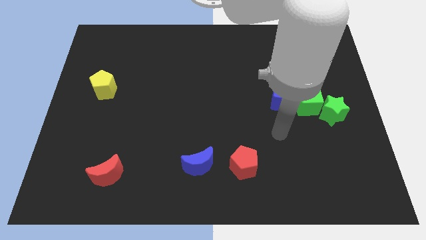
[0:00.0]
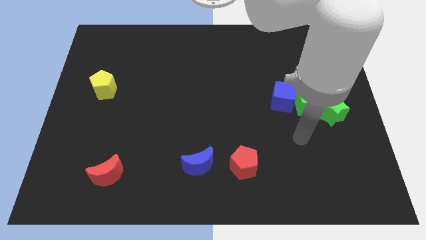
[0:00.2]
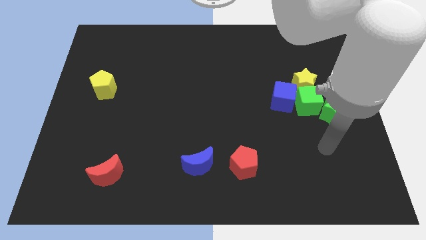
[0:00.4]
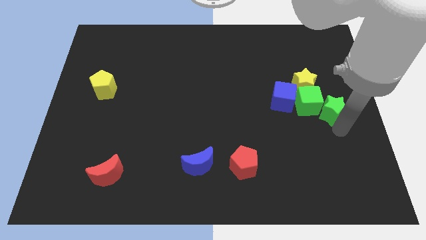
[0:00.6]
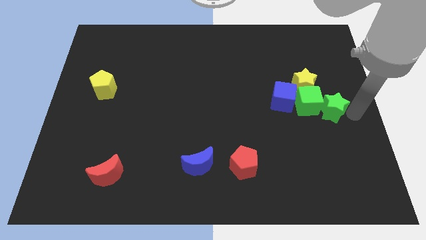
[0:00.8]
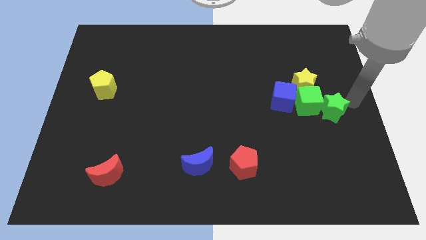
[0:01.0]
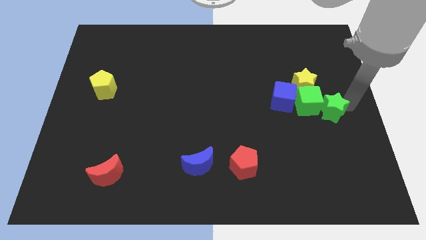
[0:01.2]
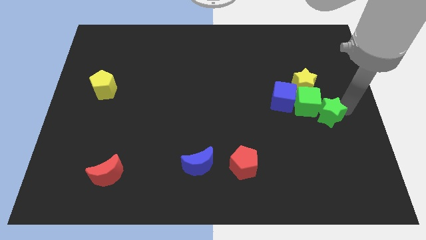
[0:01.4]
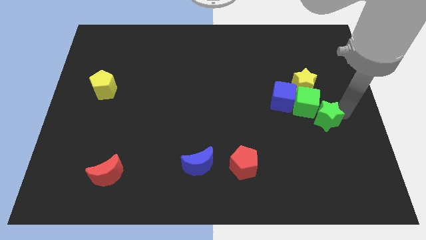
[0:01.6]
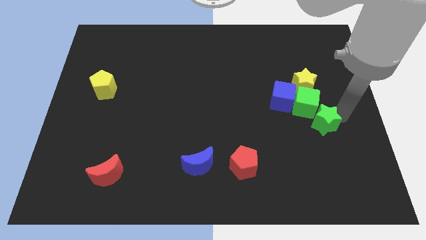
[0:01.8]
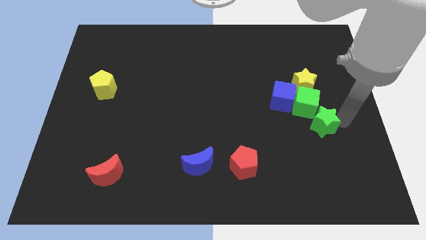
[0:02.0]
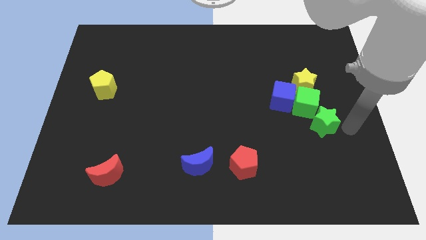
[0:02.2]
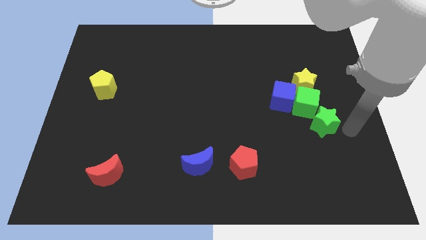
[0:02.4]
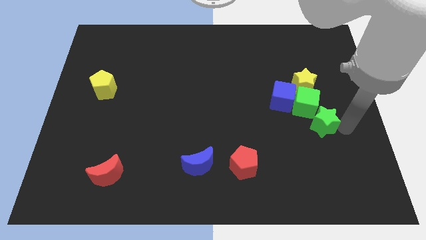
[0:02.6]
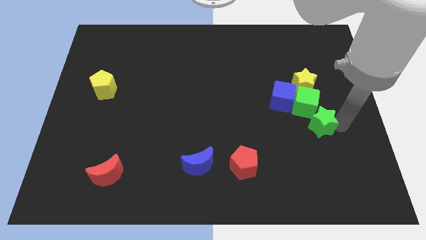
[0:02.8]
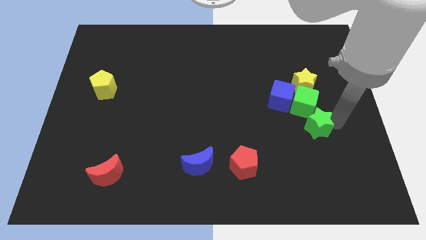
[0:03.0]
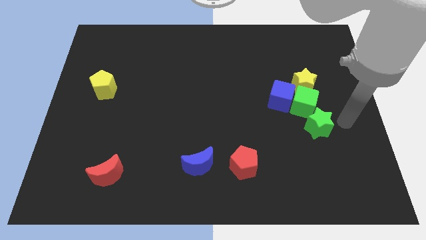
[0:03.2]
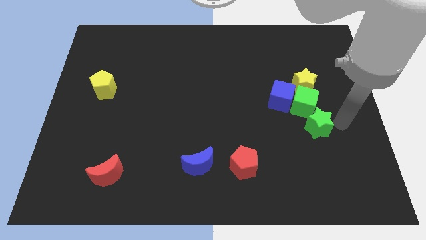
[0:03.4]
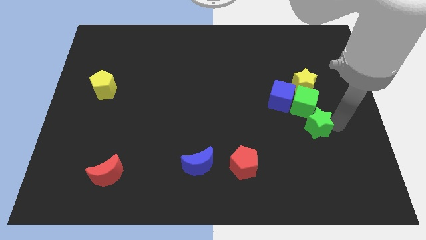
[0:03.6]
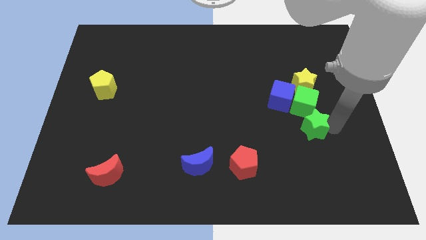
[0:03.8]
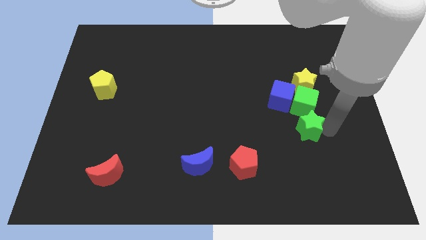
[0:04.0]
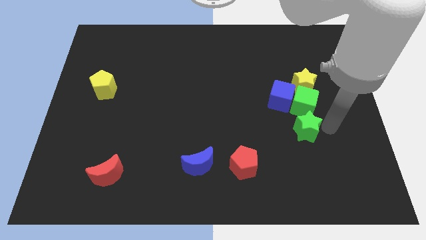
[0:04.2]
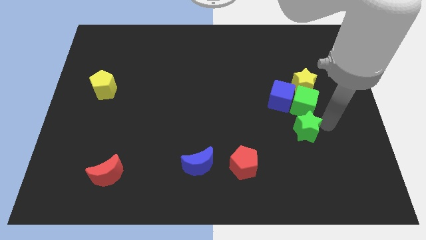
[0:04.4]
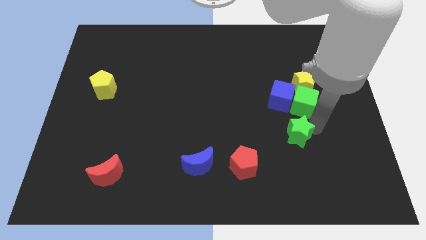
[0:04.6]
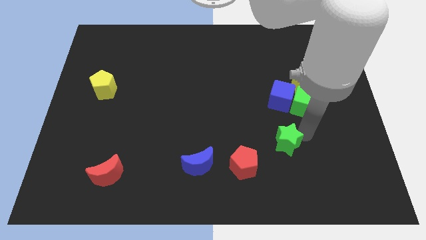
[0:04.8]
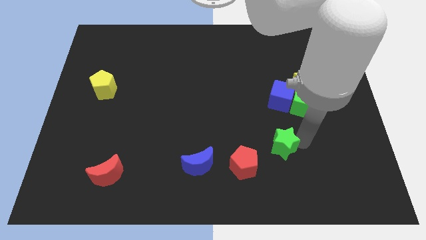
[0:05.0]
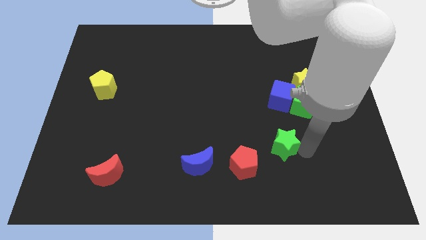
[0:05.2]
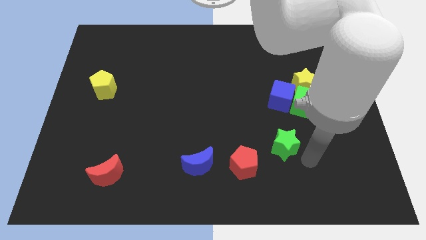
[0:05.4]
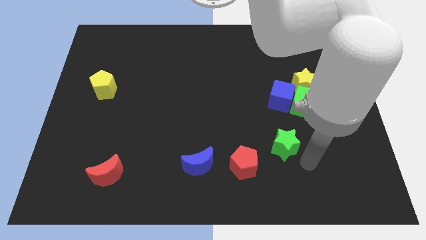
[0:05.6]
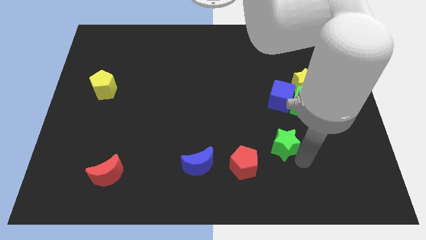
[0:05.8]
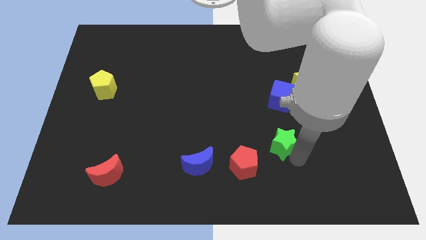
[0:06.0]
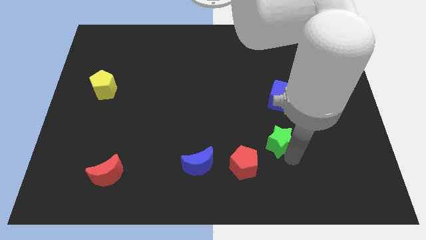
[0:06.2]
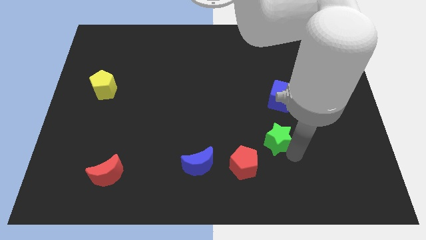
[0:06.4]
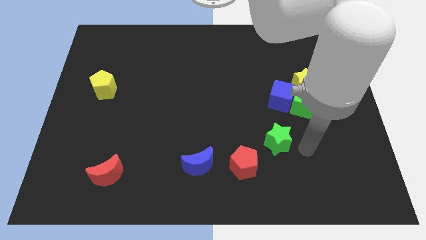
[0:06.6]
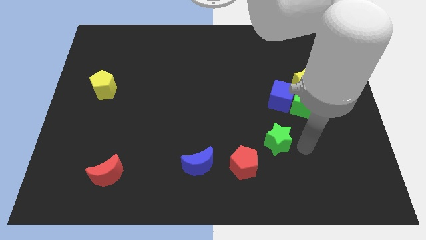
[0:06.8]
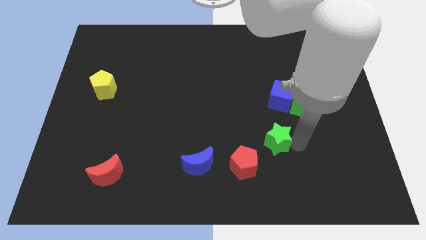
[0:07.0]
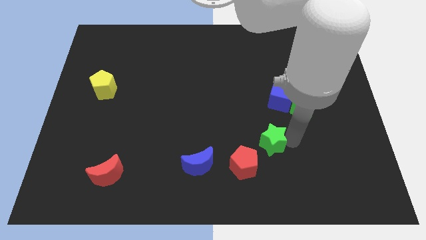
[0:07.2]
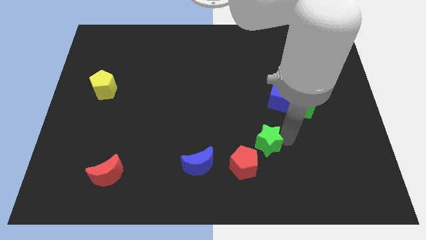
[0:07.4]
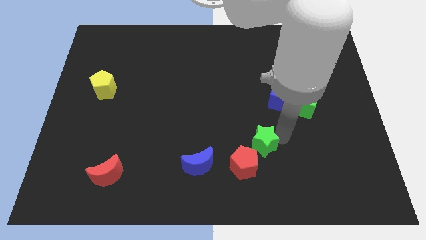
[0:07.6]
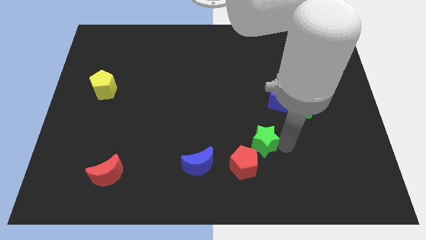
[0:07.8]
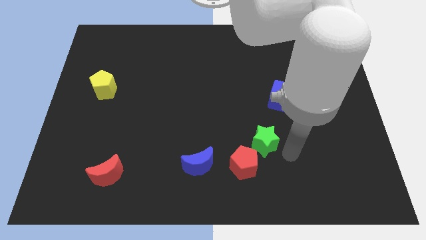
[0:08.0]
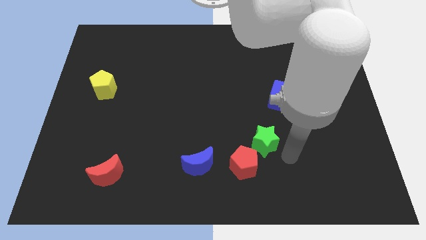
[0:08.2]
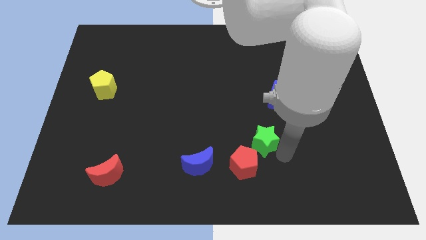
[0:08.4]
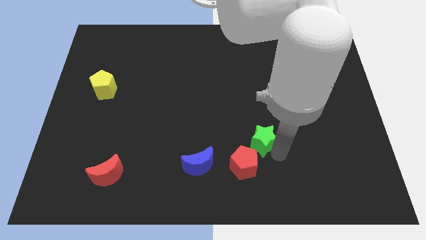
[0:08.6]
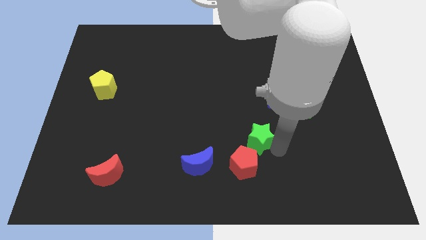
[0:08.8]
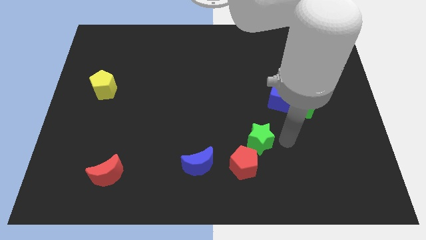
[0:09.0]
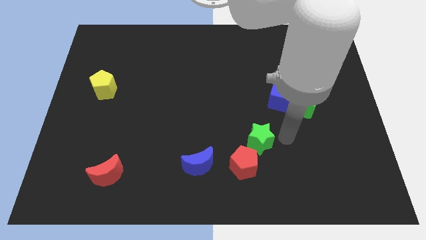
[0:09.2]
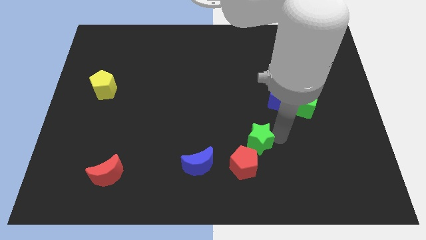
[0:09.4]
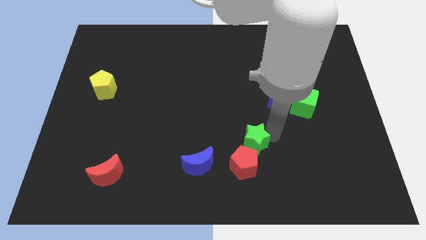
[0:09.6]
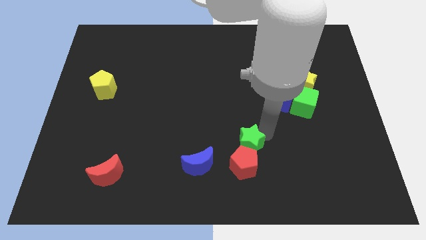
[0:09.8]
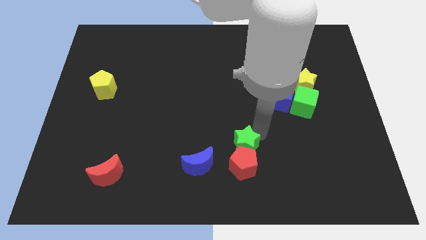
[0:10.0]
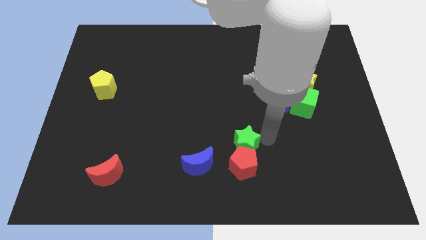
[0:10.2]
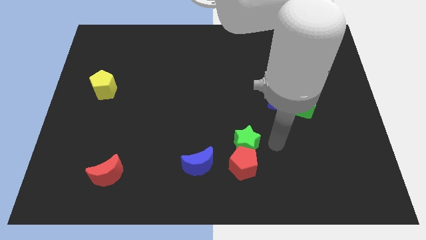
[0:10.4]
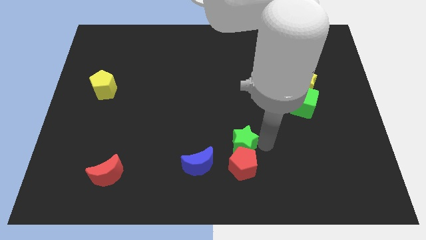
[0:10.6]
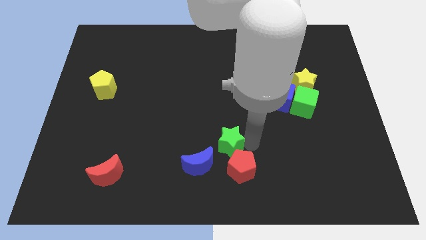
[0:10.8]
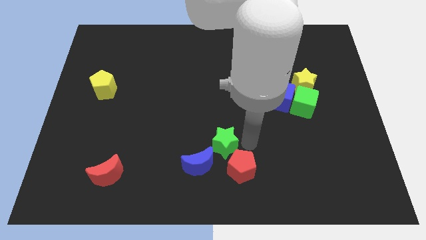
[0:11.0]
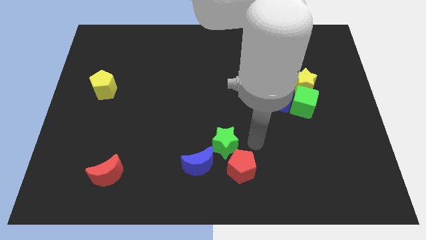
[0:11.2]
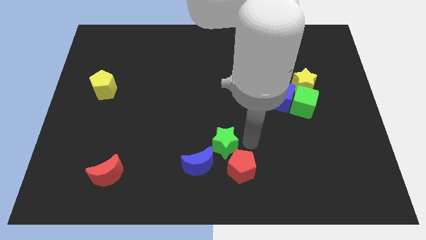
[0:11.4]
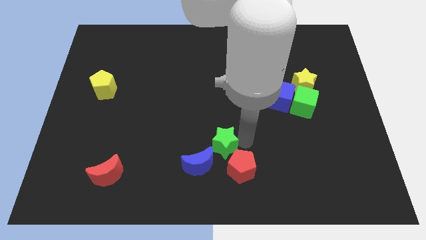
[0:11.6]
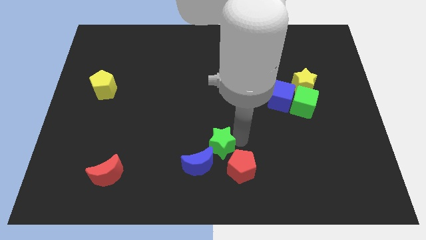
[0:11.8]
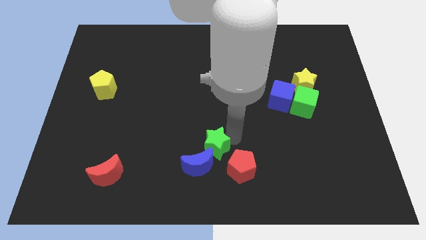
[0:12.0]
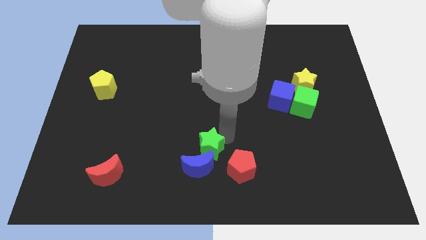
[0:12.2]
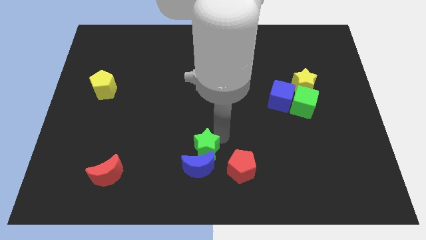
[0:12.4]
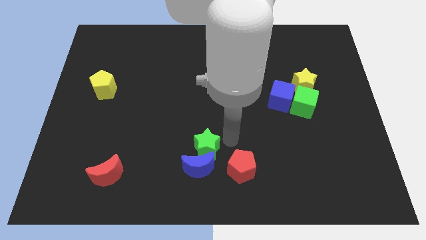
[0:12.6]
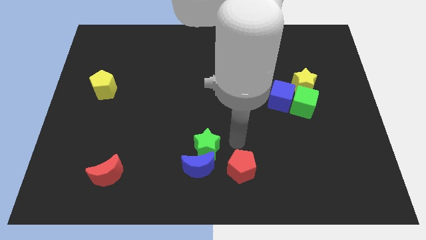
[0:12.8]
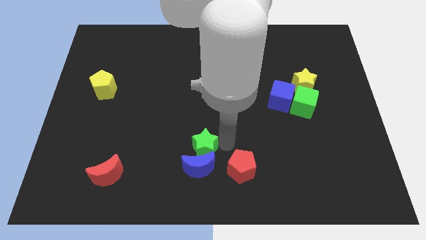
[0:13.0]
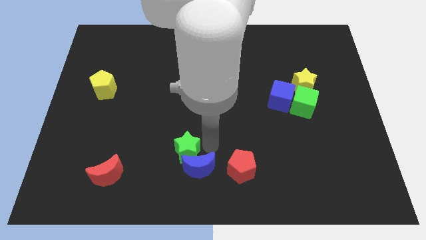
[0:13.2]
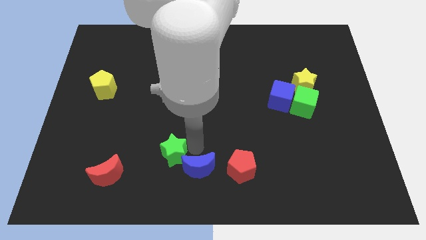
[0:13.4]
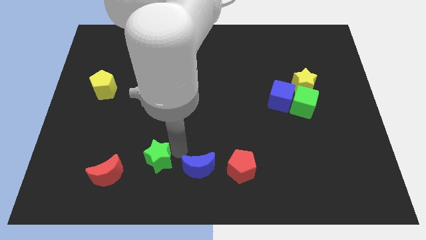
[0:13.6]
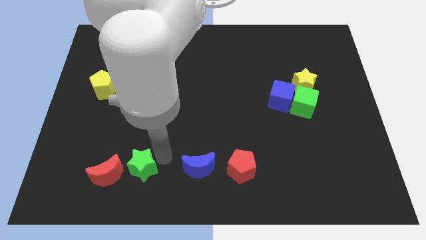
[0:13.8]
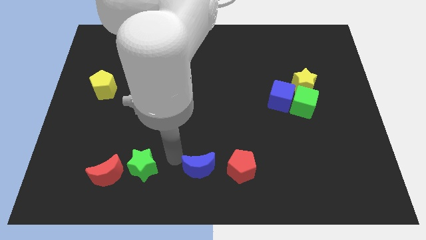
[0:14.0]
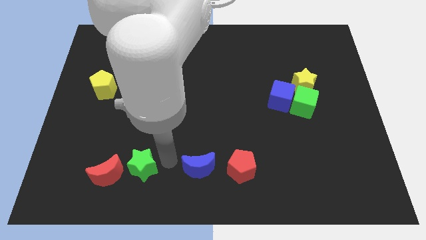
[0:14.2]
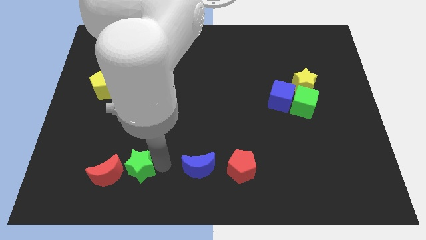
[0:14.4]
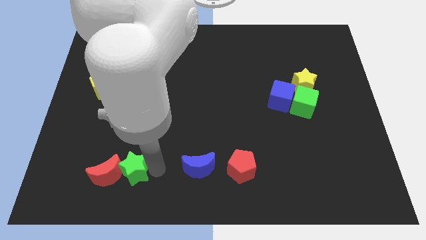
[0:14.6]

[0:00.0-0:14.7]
move the green star towards the red moon
